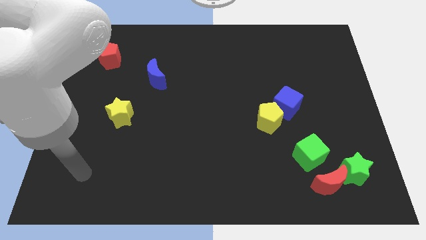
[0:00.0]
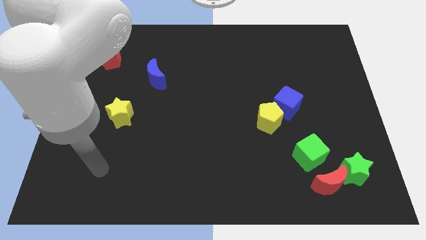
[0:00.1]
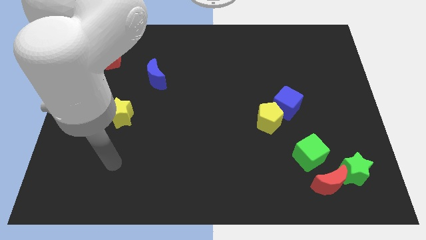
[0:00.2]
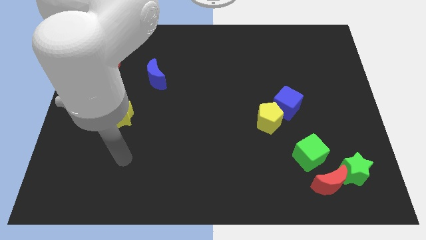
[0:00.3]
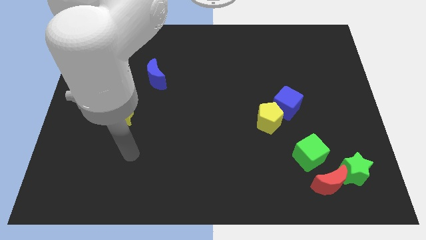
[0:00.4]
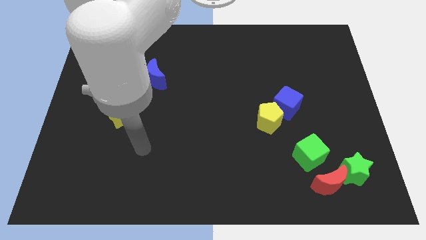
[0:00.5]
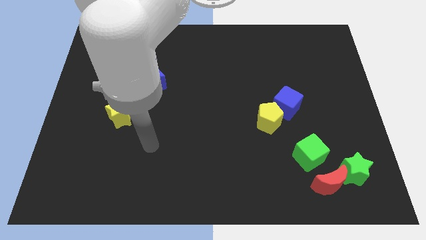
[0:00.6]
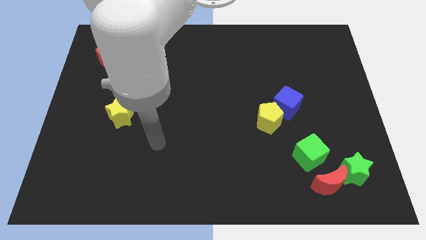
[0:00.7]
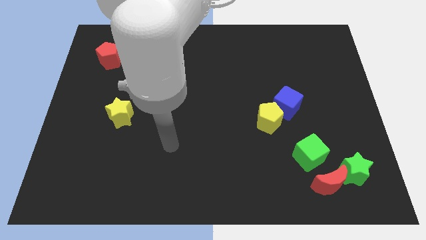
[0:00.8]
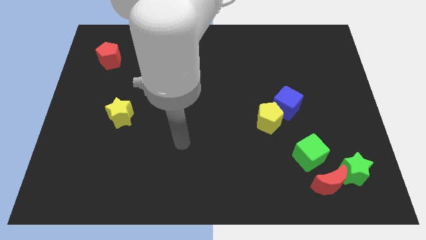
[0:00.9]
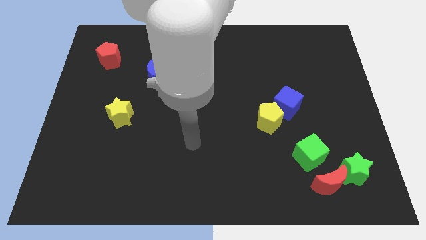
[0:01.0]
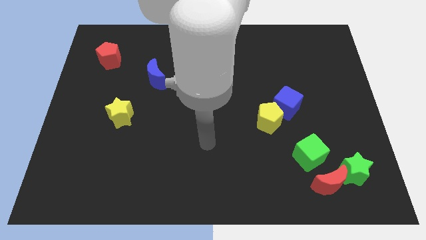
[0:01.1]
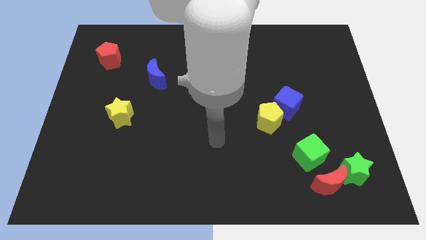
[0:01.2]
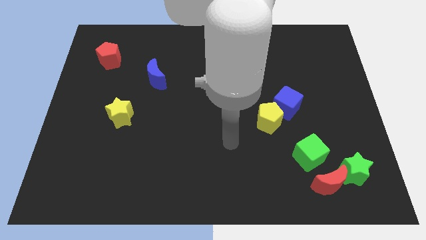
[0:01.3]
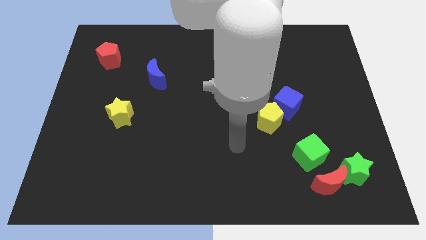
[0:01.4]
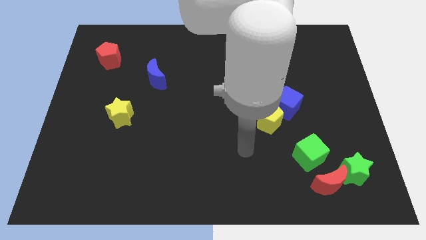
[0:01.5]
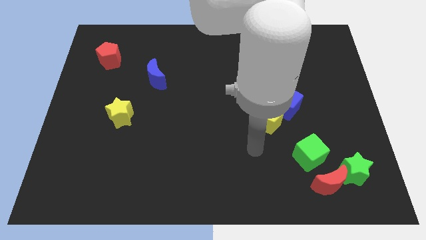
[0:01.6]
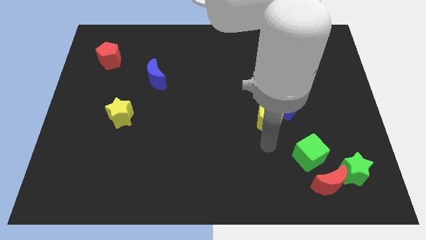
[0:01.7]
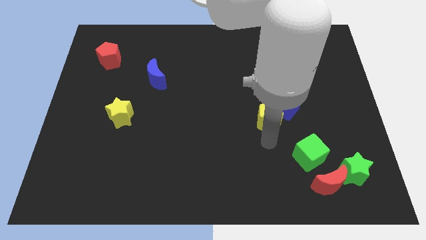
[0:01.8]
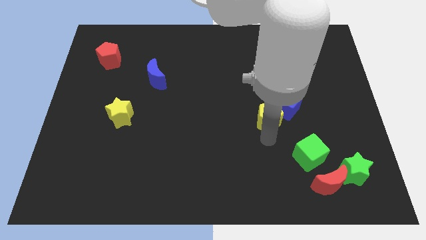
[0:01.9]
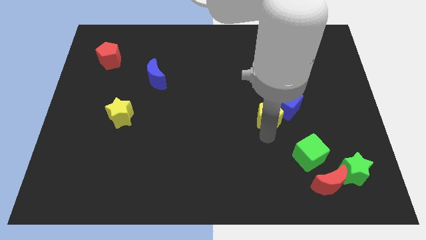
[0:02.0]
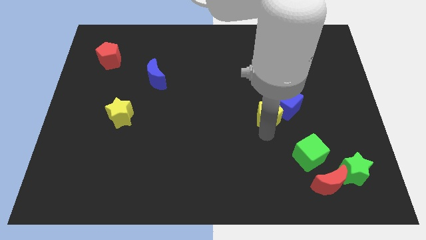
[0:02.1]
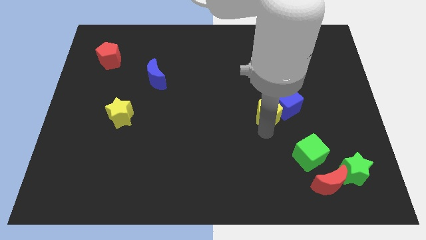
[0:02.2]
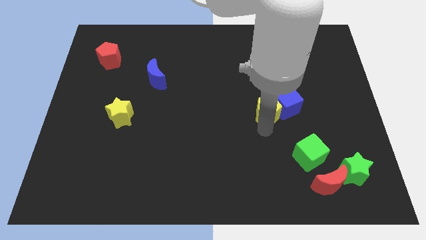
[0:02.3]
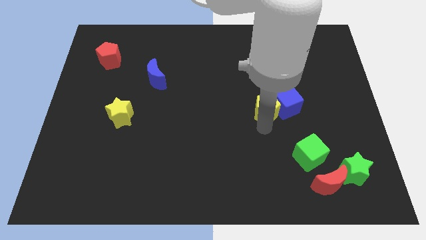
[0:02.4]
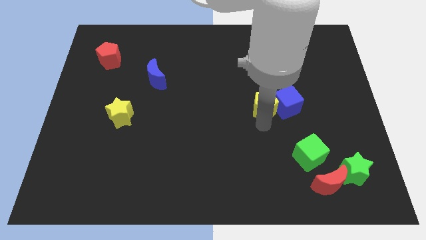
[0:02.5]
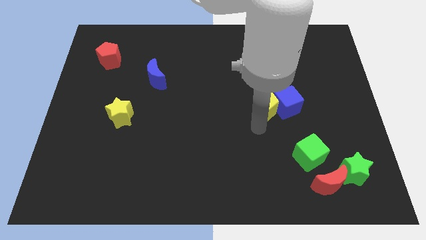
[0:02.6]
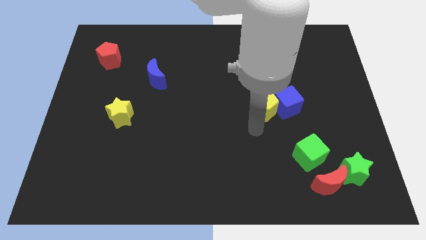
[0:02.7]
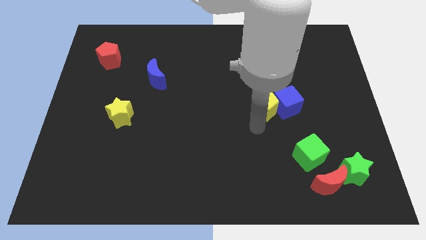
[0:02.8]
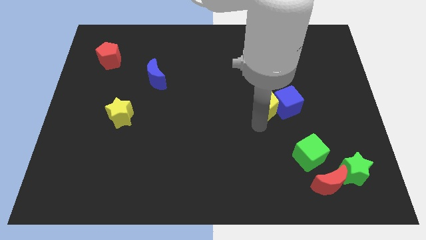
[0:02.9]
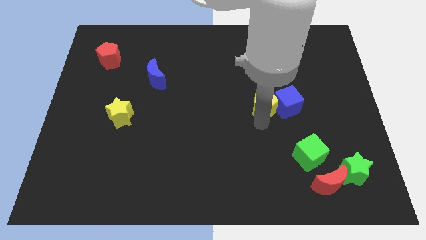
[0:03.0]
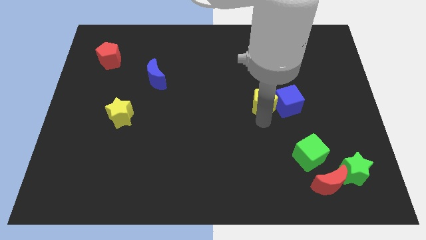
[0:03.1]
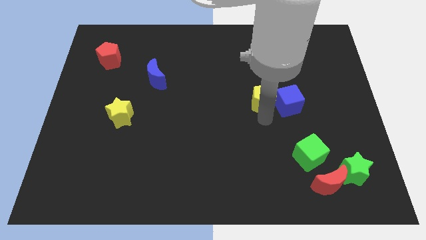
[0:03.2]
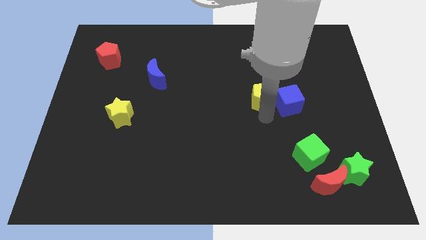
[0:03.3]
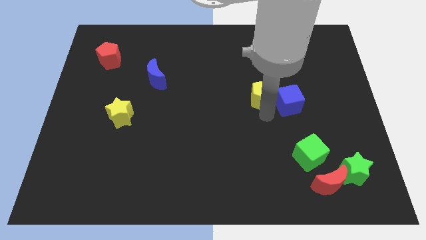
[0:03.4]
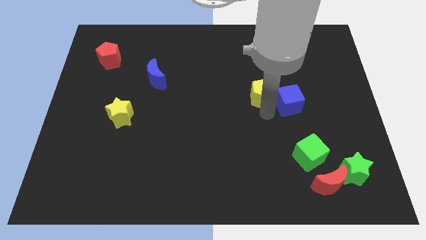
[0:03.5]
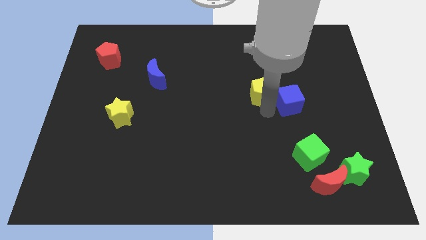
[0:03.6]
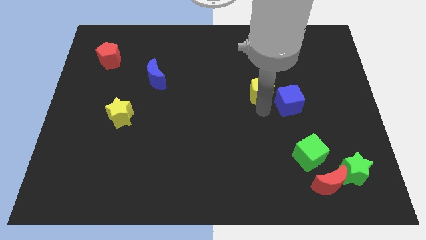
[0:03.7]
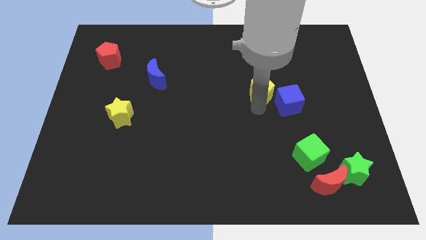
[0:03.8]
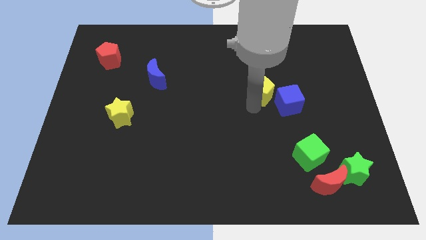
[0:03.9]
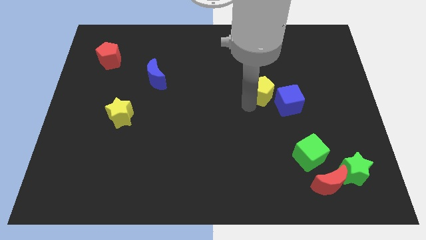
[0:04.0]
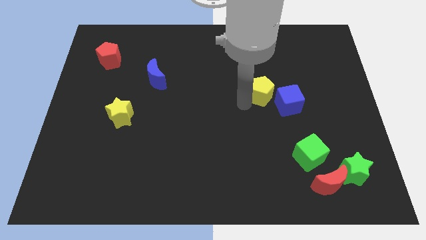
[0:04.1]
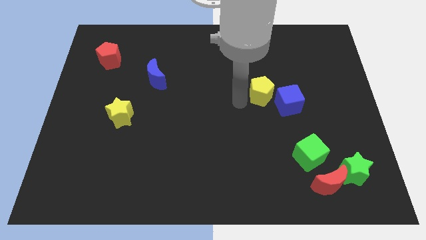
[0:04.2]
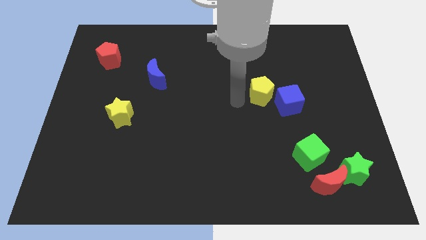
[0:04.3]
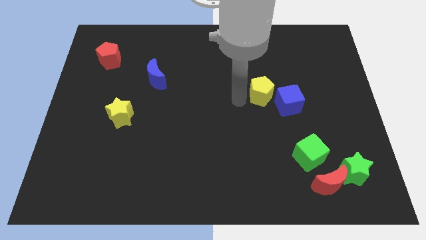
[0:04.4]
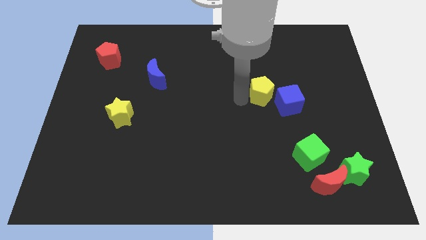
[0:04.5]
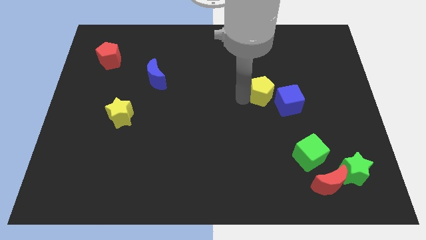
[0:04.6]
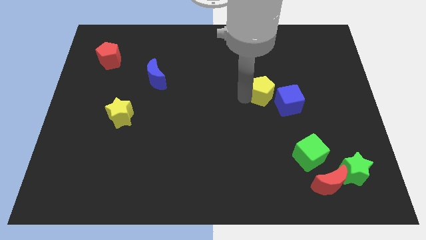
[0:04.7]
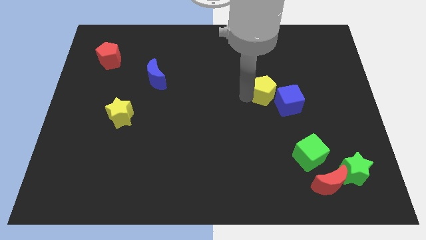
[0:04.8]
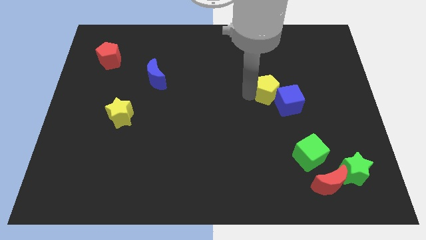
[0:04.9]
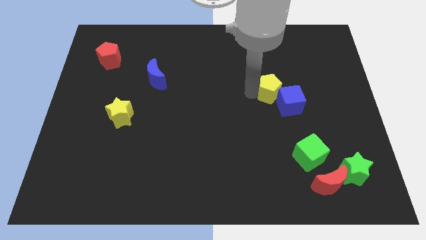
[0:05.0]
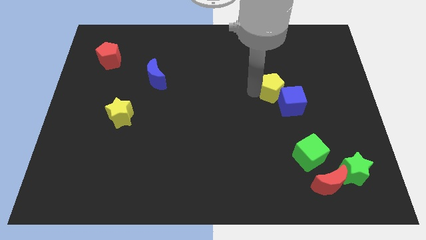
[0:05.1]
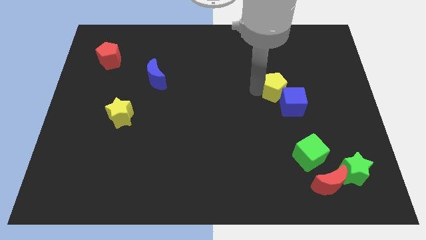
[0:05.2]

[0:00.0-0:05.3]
slide the yellow pentagon somewhat upwards and then to the right

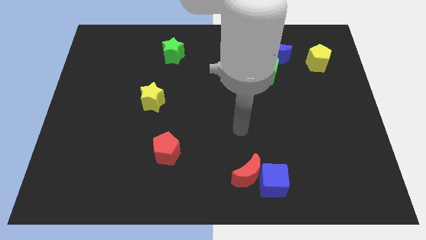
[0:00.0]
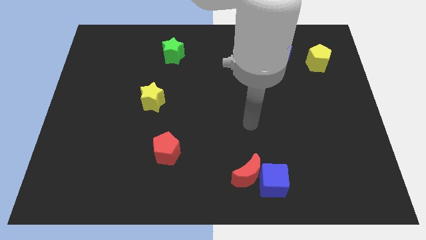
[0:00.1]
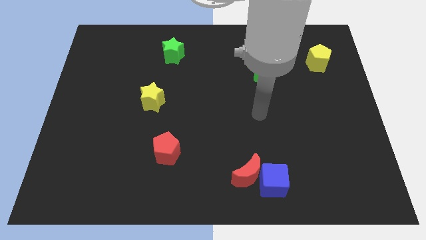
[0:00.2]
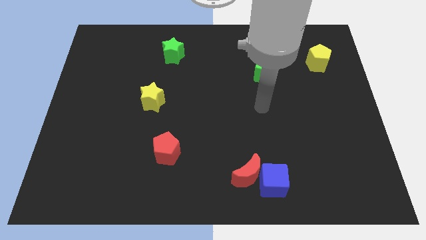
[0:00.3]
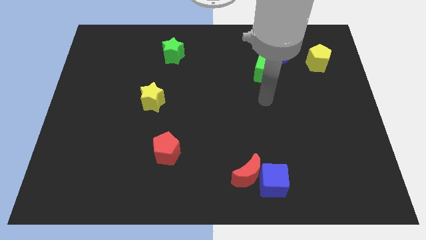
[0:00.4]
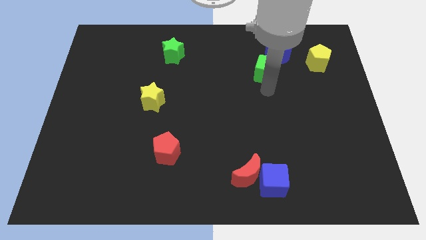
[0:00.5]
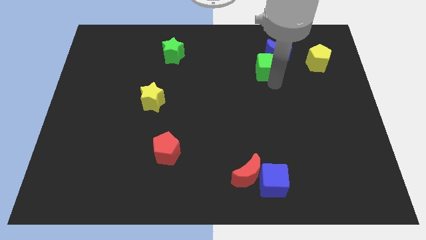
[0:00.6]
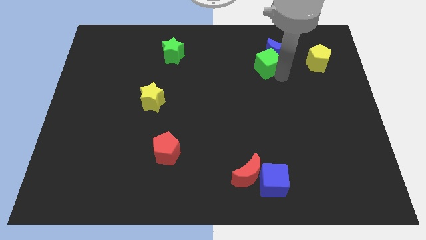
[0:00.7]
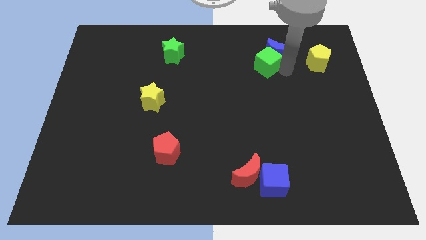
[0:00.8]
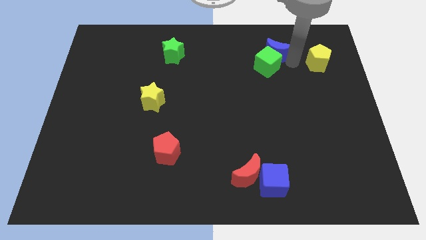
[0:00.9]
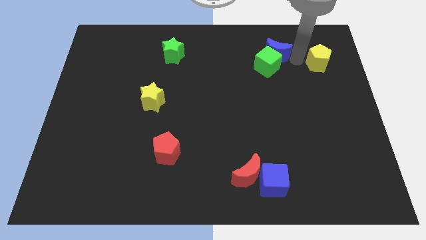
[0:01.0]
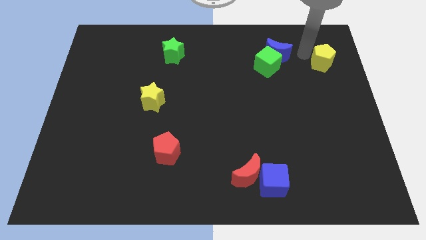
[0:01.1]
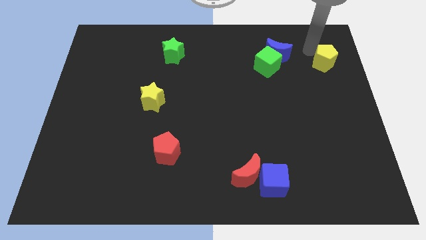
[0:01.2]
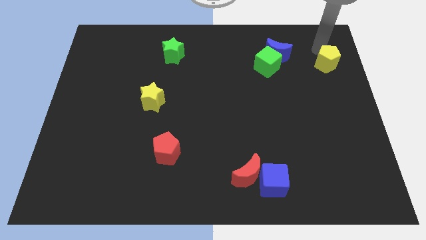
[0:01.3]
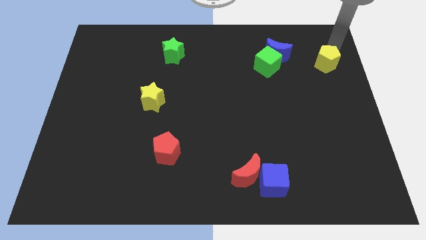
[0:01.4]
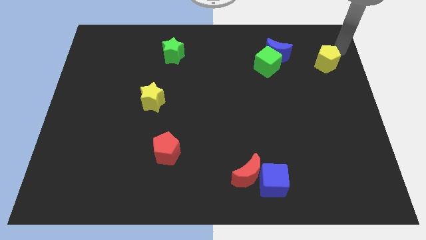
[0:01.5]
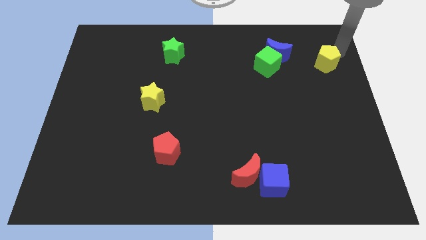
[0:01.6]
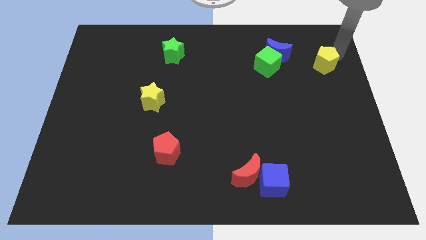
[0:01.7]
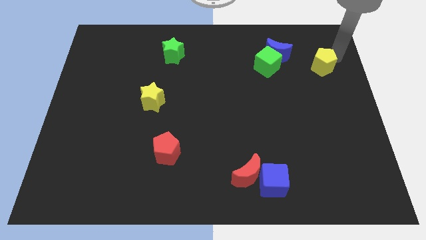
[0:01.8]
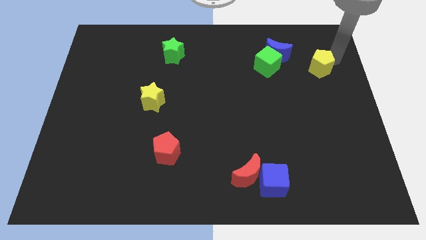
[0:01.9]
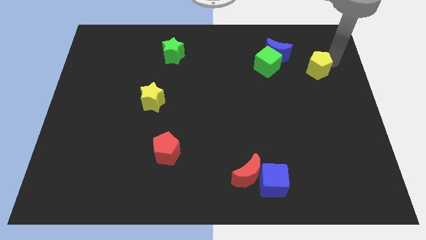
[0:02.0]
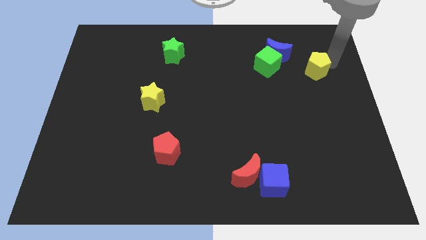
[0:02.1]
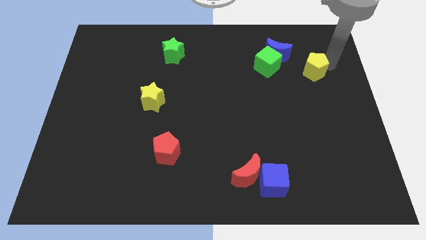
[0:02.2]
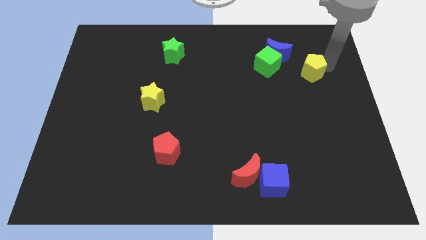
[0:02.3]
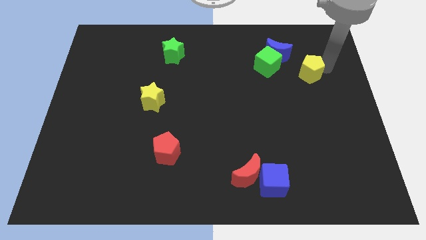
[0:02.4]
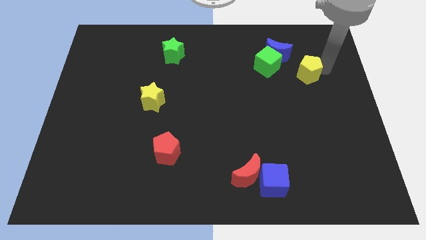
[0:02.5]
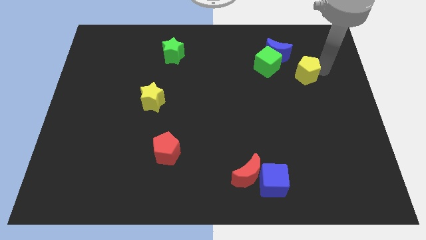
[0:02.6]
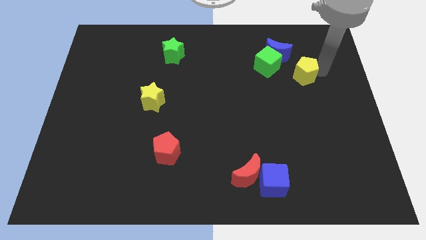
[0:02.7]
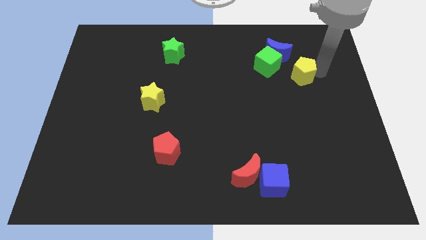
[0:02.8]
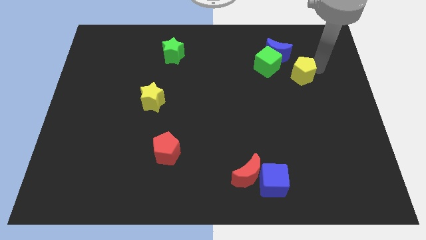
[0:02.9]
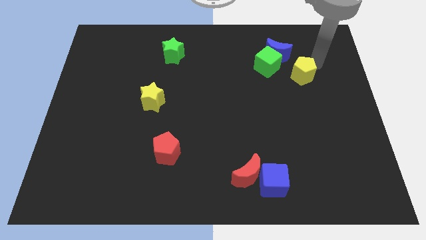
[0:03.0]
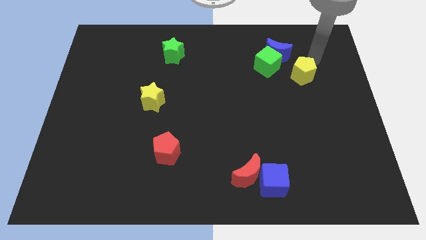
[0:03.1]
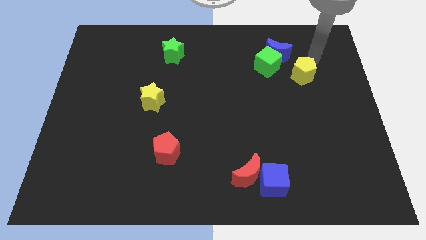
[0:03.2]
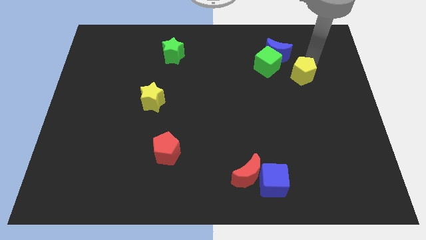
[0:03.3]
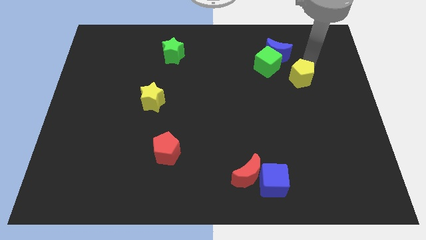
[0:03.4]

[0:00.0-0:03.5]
move the yellow pentagon diagonally down and to the left slightly

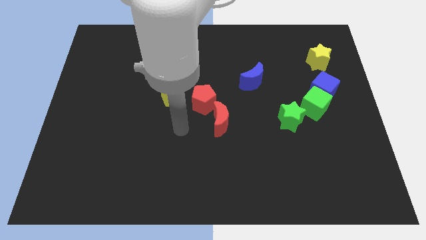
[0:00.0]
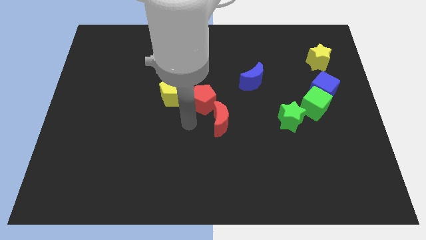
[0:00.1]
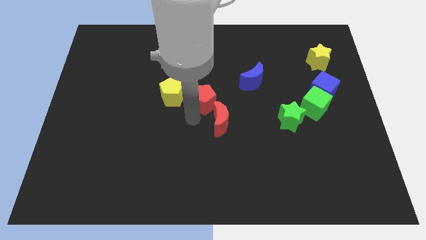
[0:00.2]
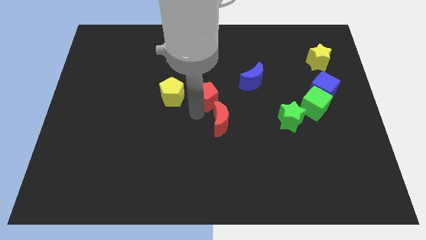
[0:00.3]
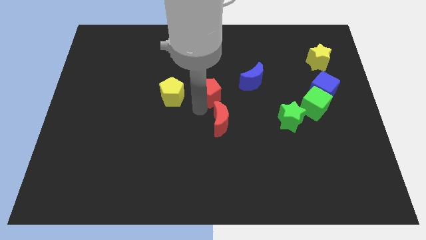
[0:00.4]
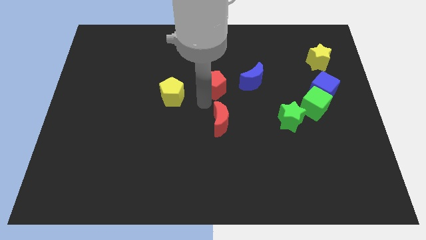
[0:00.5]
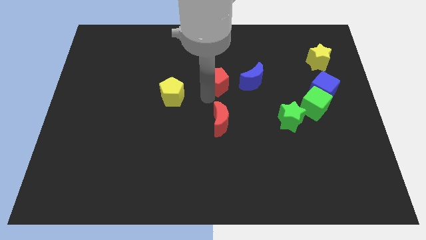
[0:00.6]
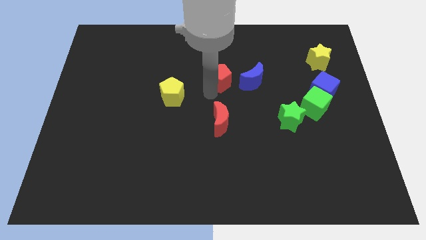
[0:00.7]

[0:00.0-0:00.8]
slightly move the red pentagon up and then to the right
